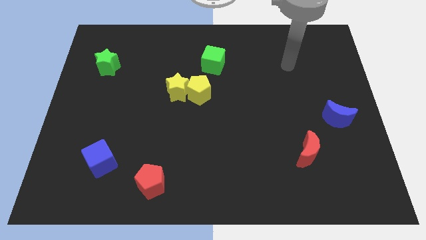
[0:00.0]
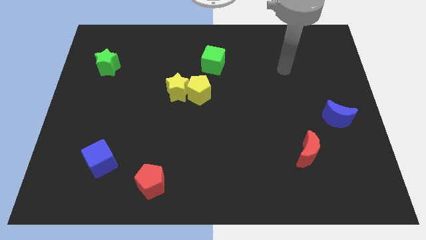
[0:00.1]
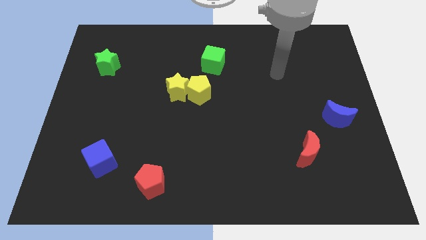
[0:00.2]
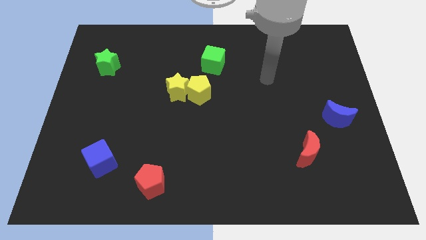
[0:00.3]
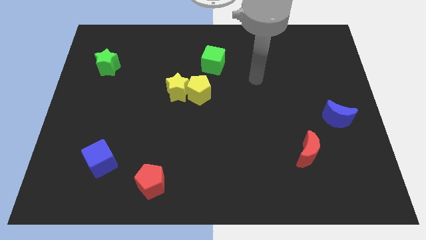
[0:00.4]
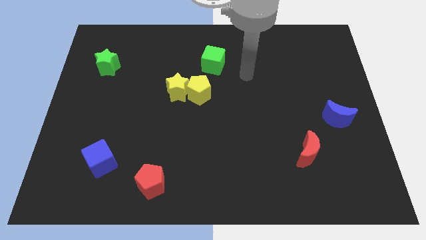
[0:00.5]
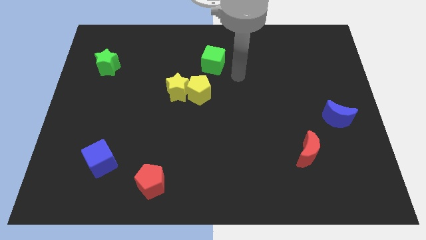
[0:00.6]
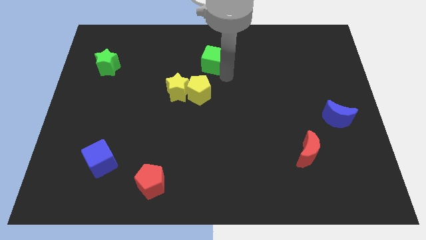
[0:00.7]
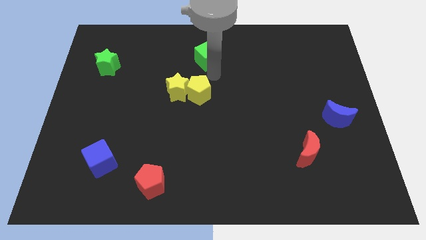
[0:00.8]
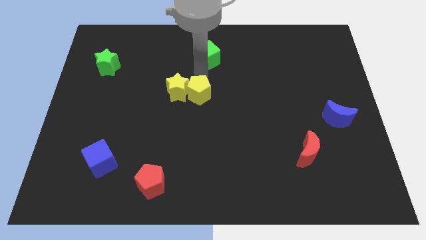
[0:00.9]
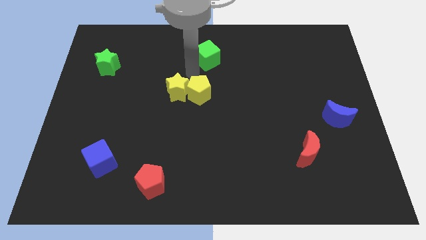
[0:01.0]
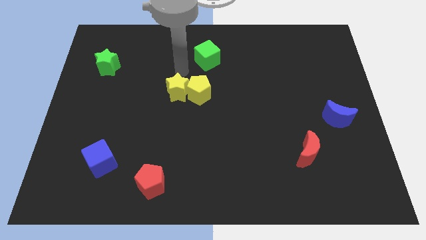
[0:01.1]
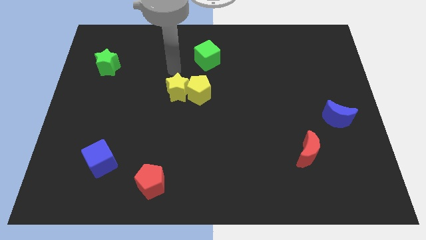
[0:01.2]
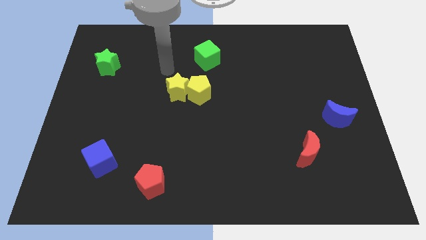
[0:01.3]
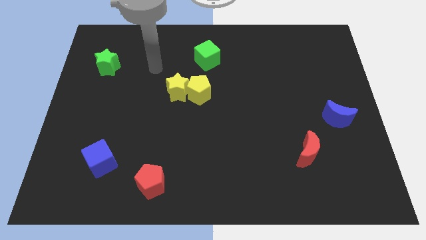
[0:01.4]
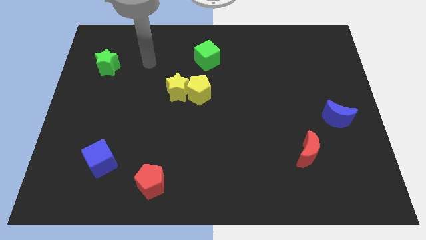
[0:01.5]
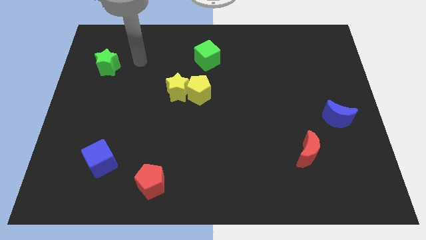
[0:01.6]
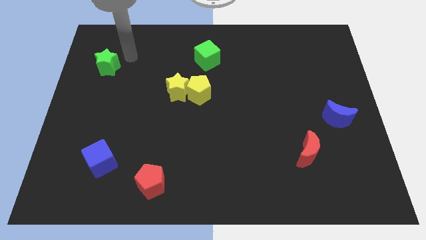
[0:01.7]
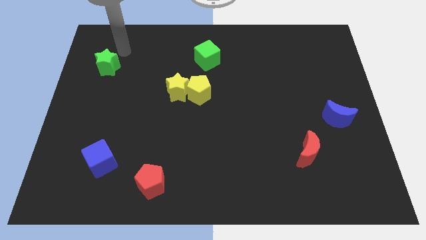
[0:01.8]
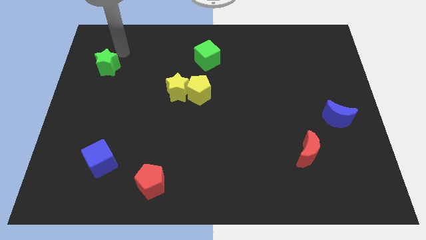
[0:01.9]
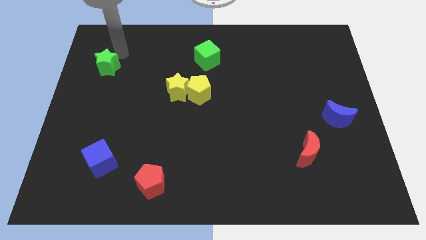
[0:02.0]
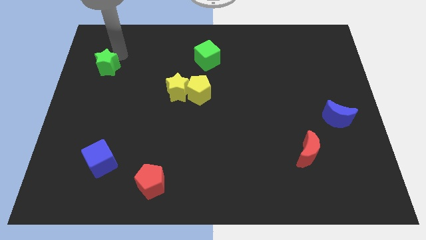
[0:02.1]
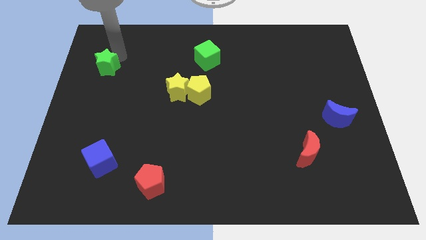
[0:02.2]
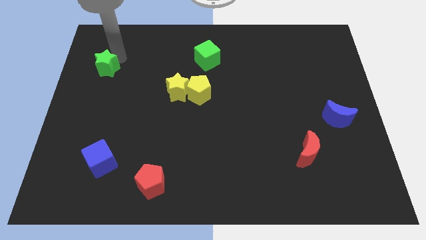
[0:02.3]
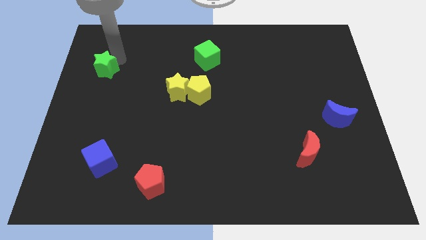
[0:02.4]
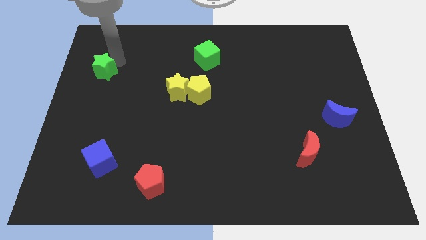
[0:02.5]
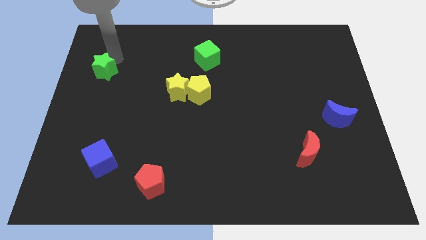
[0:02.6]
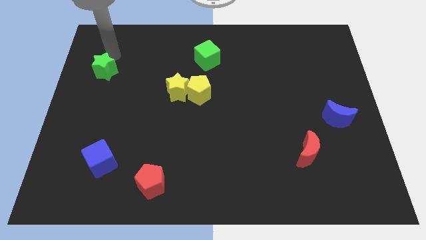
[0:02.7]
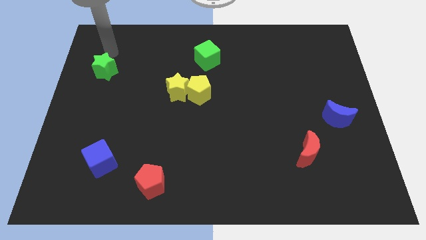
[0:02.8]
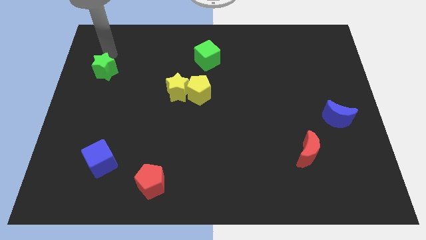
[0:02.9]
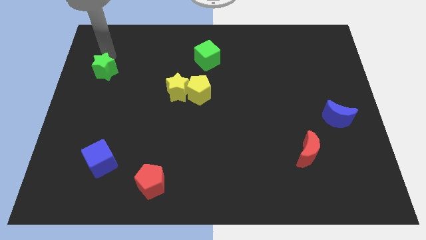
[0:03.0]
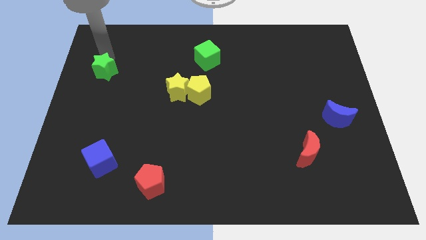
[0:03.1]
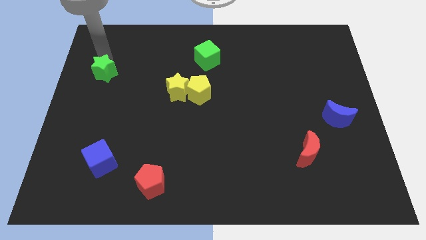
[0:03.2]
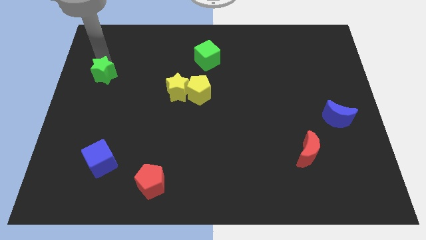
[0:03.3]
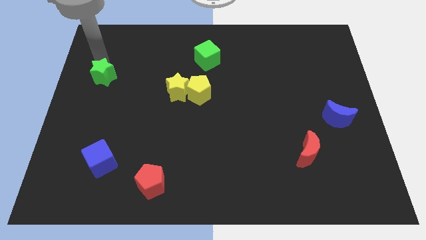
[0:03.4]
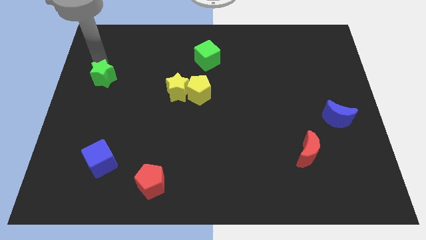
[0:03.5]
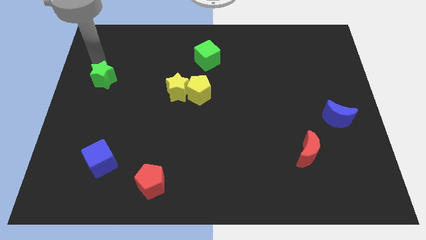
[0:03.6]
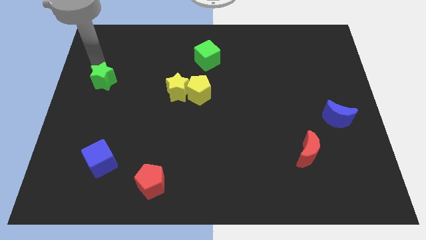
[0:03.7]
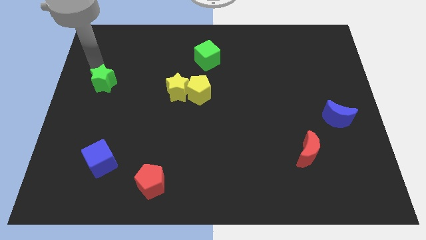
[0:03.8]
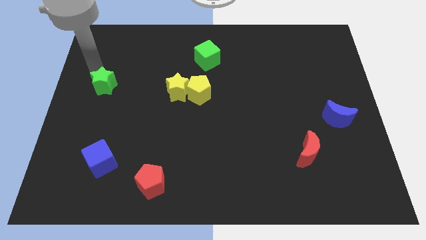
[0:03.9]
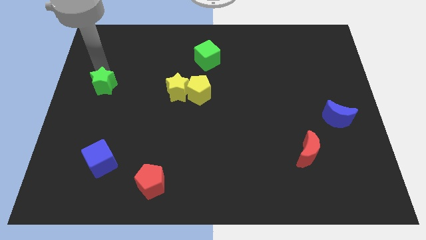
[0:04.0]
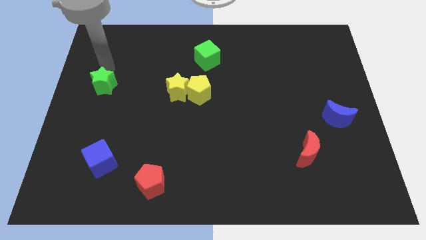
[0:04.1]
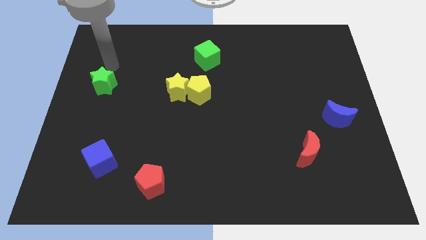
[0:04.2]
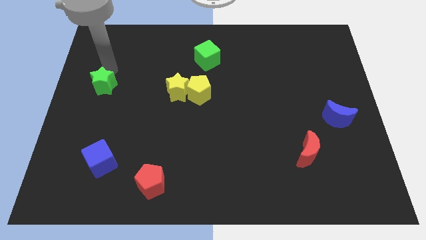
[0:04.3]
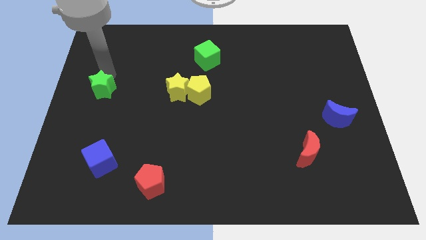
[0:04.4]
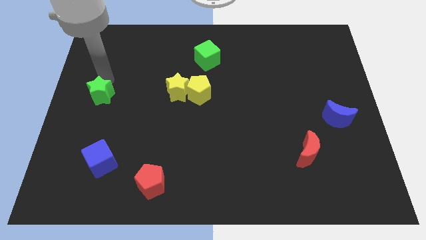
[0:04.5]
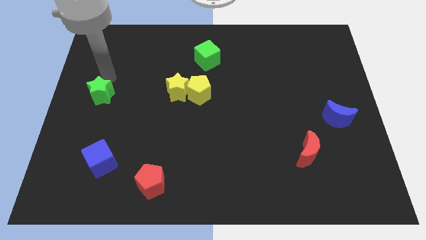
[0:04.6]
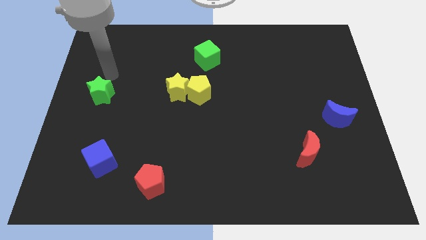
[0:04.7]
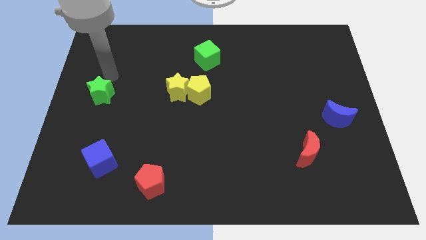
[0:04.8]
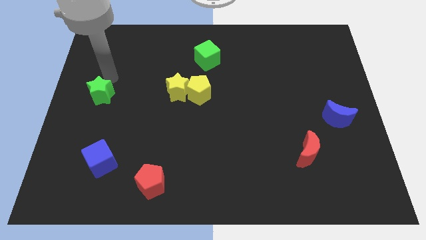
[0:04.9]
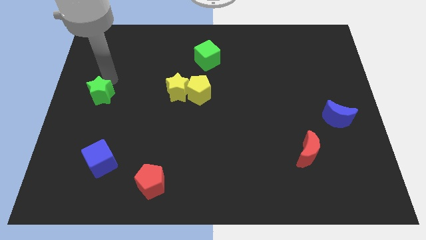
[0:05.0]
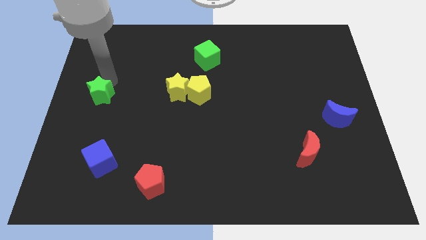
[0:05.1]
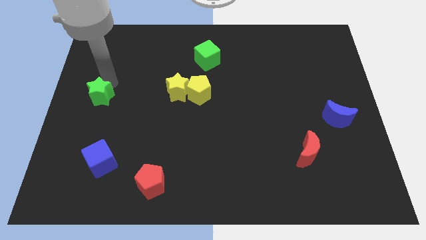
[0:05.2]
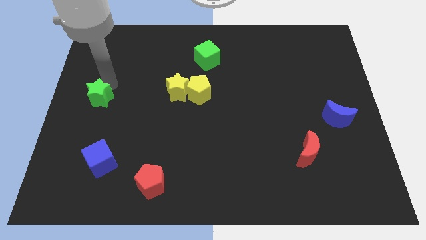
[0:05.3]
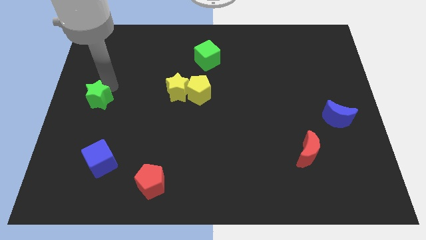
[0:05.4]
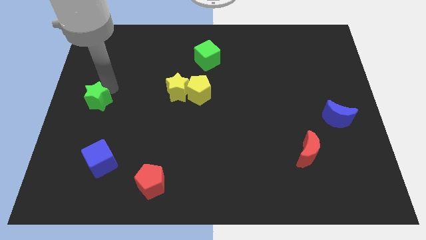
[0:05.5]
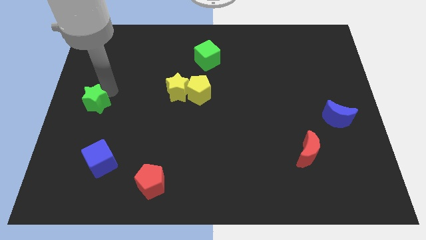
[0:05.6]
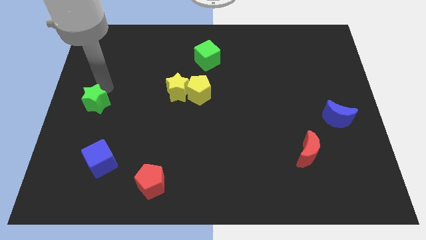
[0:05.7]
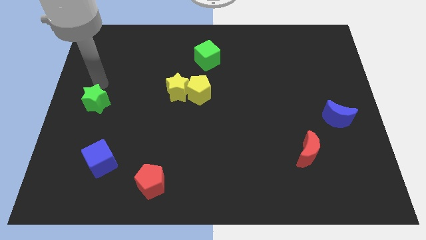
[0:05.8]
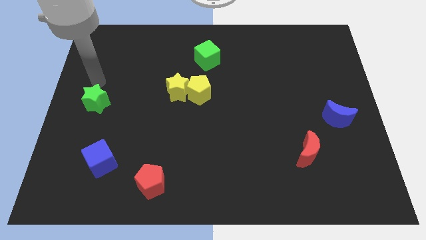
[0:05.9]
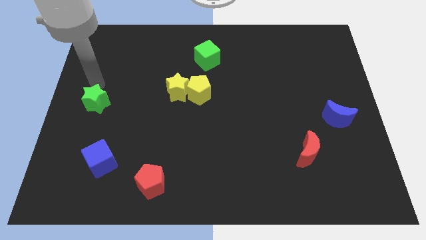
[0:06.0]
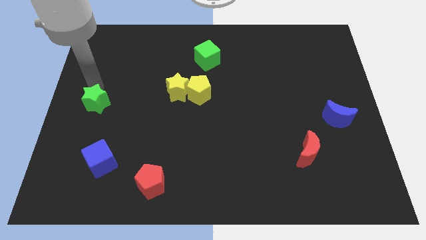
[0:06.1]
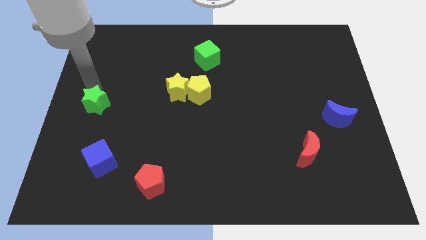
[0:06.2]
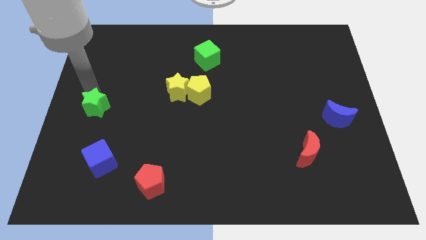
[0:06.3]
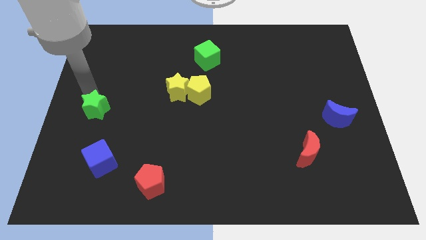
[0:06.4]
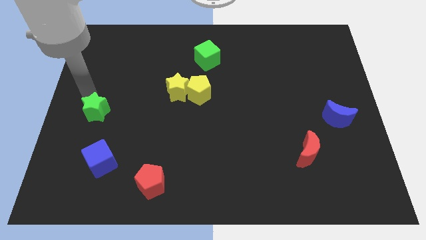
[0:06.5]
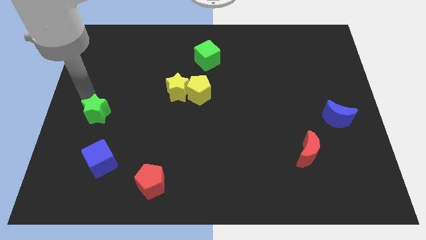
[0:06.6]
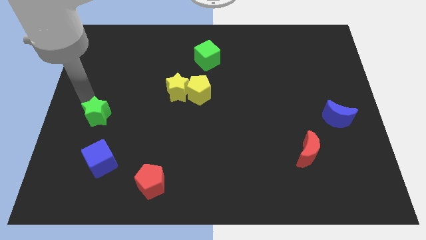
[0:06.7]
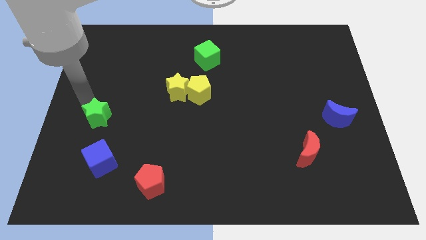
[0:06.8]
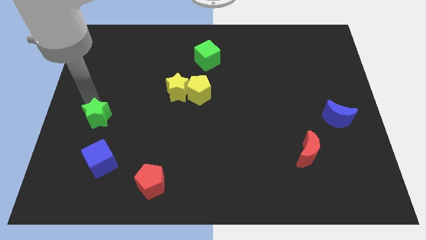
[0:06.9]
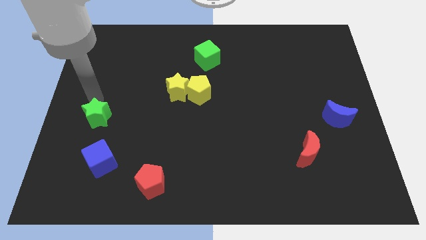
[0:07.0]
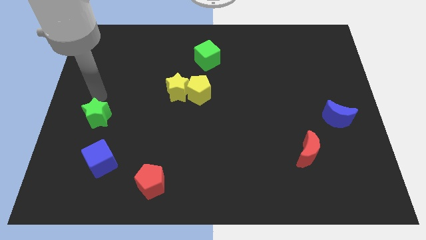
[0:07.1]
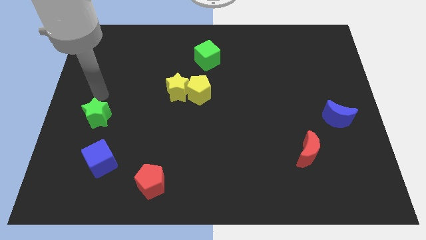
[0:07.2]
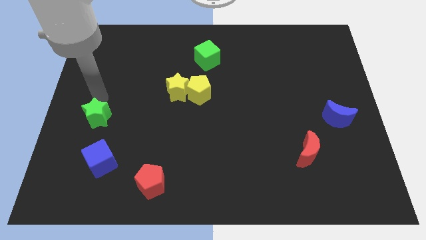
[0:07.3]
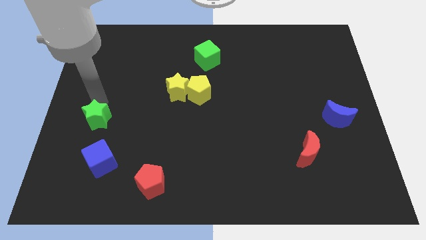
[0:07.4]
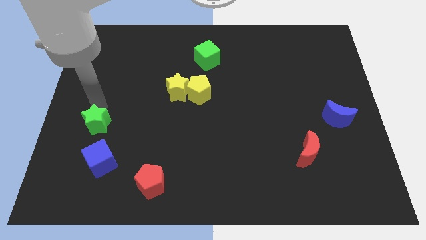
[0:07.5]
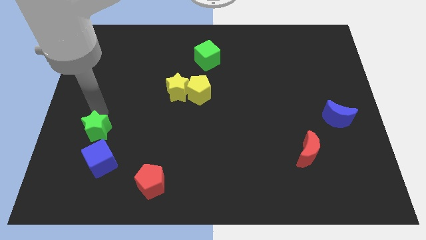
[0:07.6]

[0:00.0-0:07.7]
slide the green star down

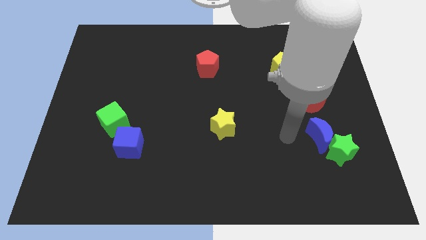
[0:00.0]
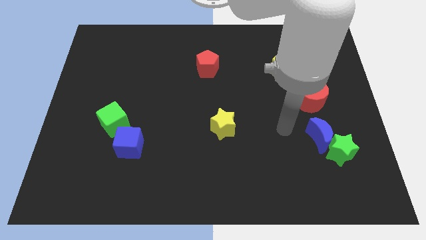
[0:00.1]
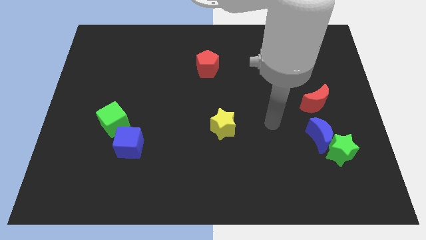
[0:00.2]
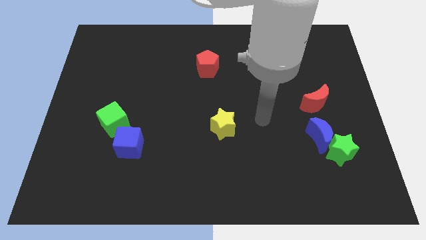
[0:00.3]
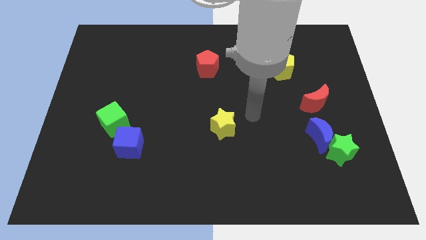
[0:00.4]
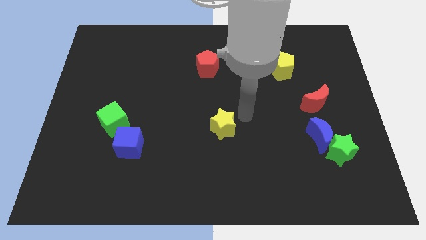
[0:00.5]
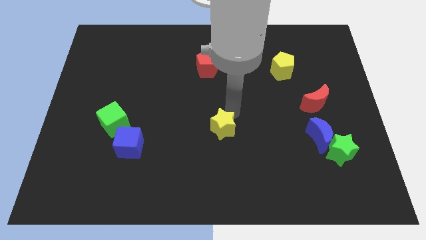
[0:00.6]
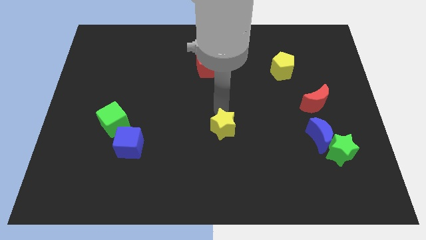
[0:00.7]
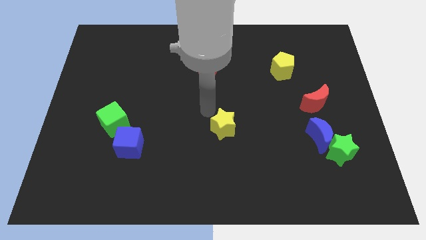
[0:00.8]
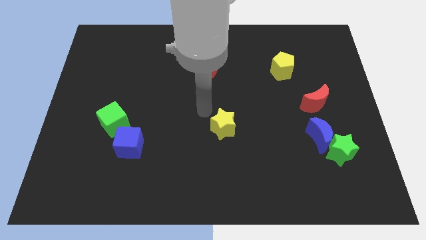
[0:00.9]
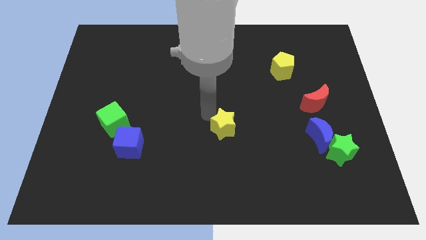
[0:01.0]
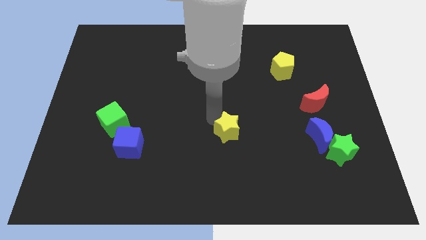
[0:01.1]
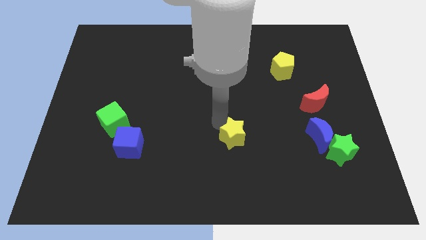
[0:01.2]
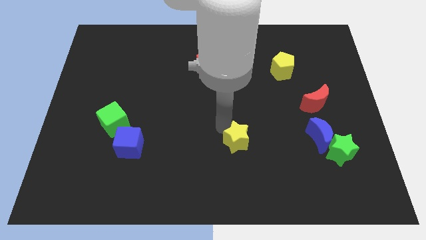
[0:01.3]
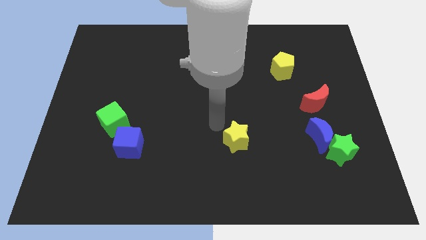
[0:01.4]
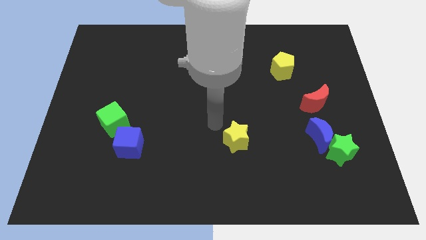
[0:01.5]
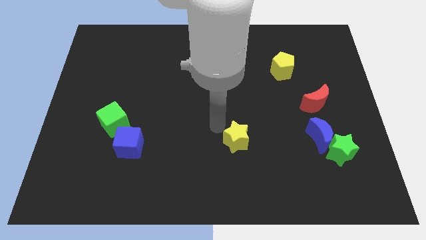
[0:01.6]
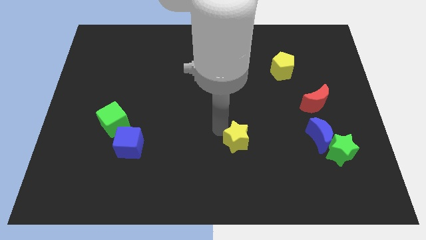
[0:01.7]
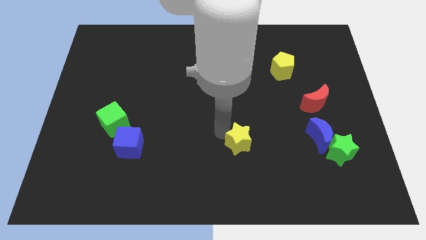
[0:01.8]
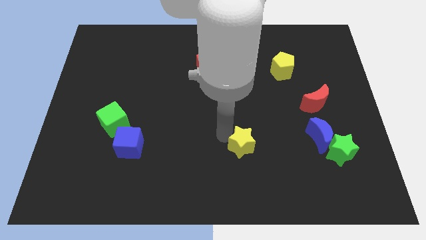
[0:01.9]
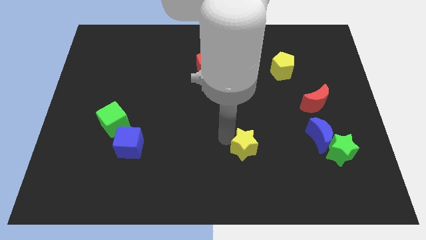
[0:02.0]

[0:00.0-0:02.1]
slide the yellow star downwards and to the right slightly
